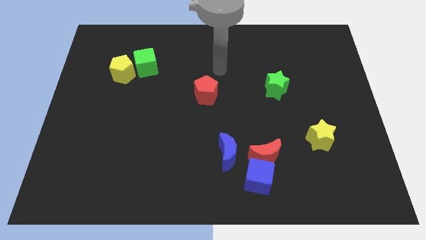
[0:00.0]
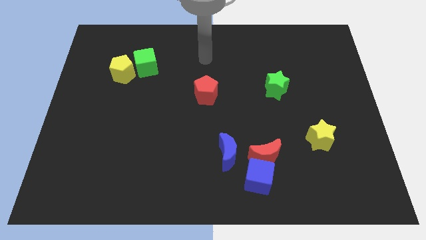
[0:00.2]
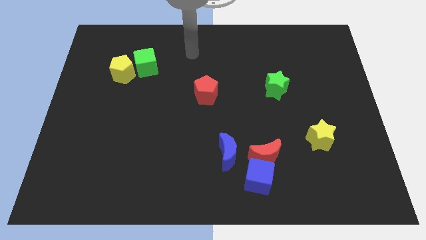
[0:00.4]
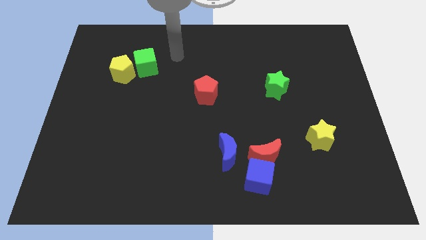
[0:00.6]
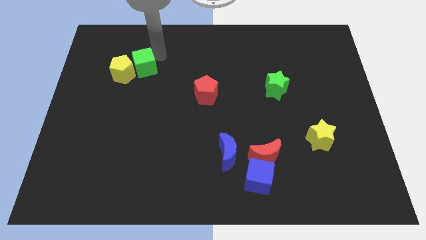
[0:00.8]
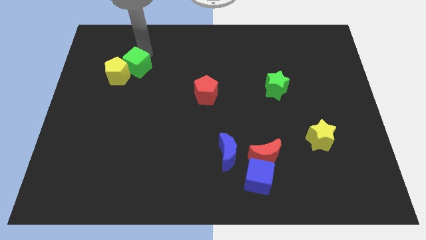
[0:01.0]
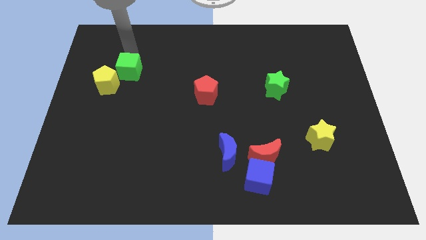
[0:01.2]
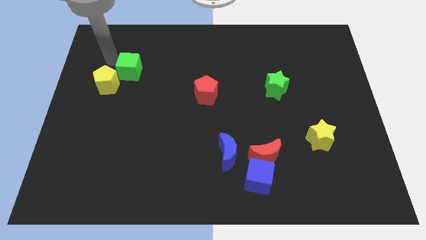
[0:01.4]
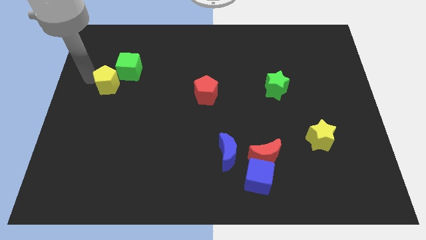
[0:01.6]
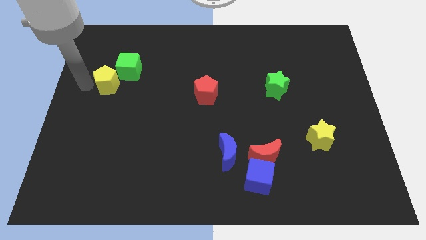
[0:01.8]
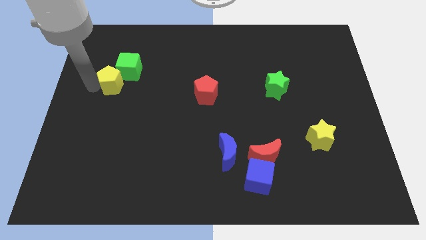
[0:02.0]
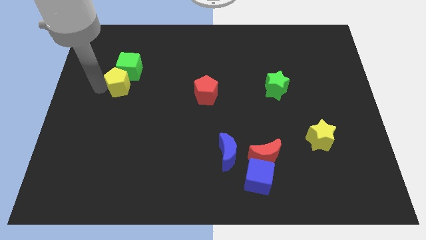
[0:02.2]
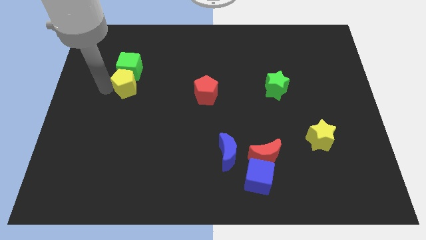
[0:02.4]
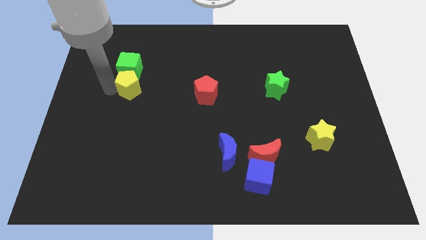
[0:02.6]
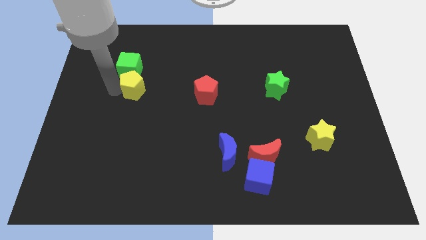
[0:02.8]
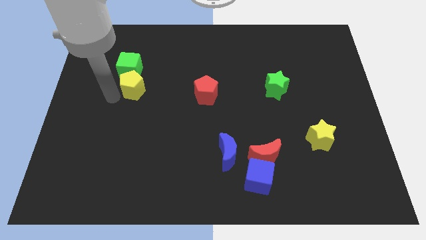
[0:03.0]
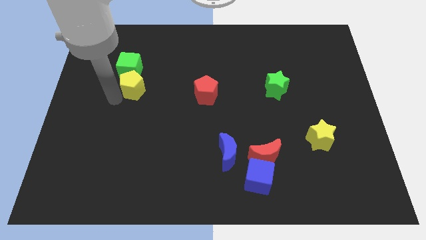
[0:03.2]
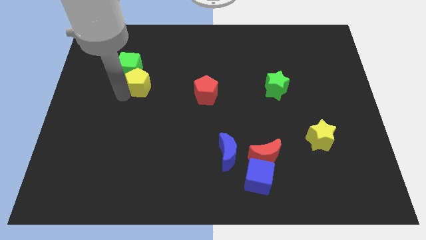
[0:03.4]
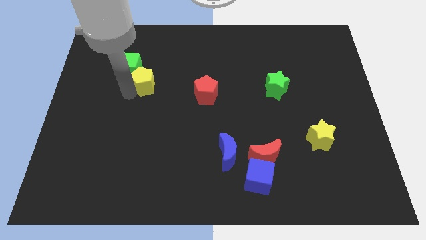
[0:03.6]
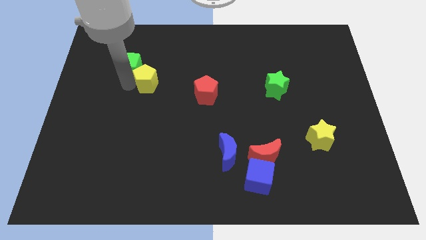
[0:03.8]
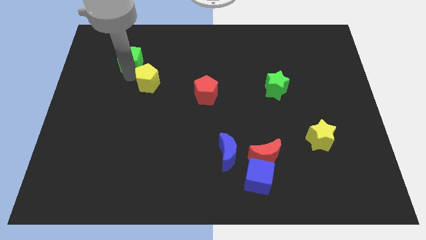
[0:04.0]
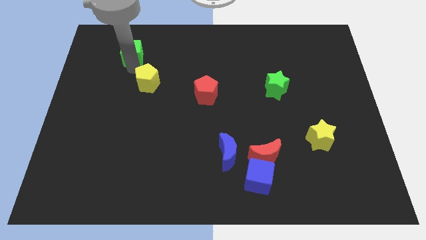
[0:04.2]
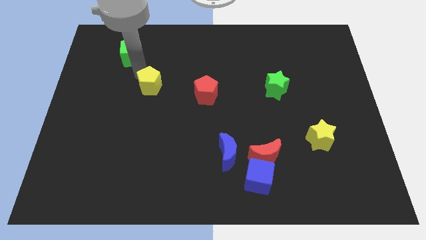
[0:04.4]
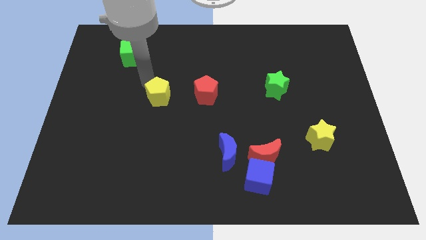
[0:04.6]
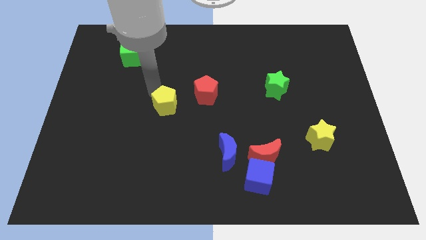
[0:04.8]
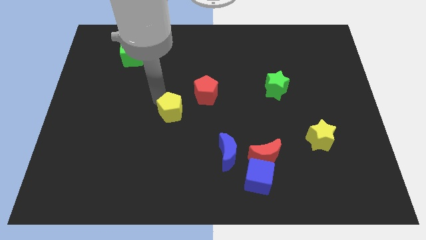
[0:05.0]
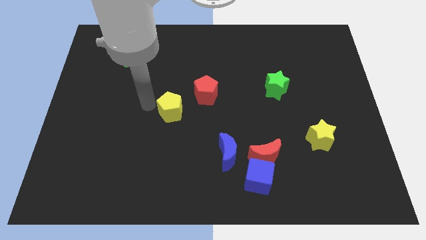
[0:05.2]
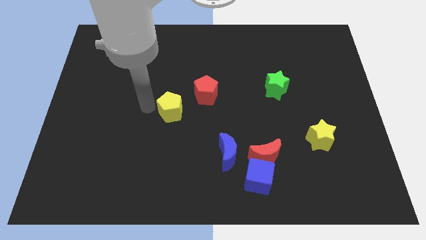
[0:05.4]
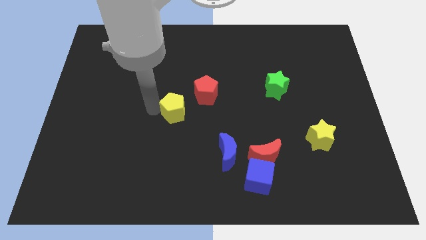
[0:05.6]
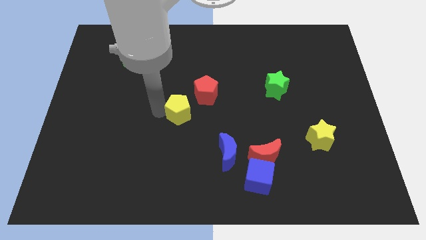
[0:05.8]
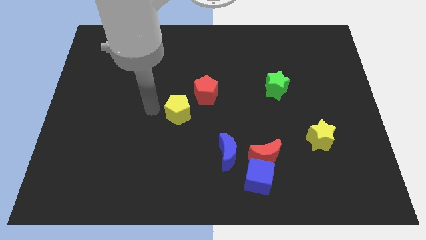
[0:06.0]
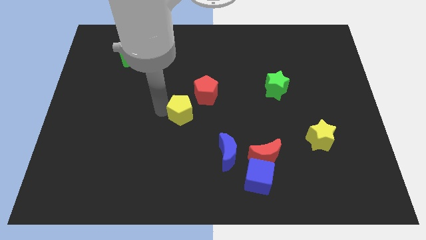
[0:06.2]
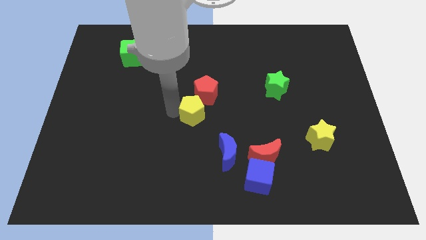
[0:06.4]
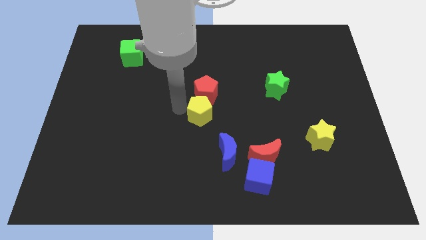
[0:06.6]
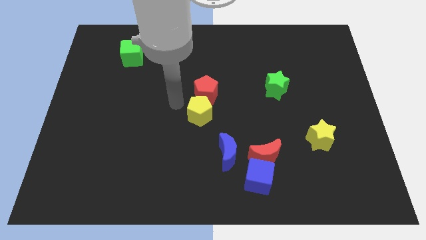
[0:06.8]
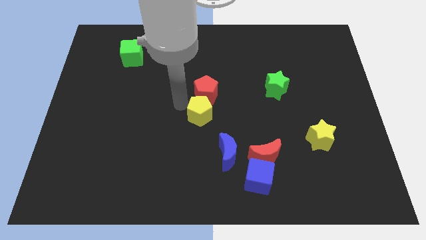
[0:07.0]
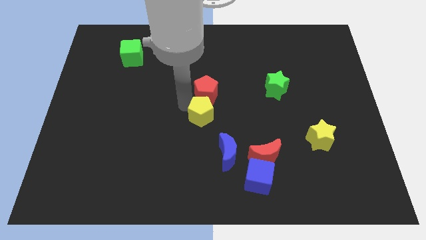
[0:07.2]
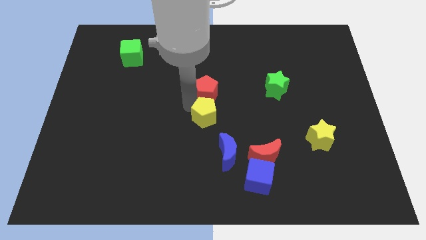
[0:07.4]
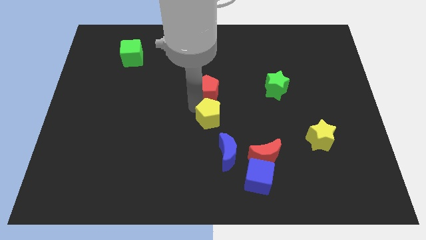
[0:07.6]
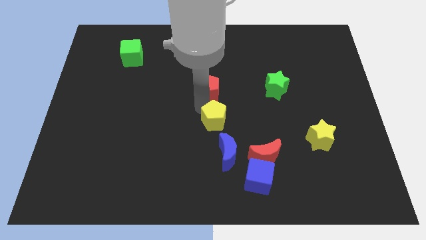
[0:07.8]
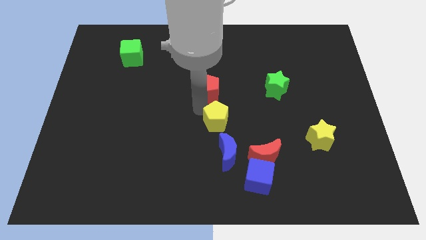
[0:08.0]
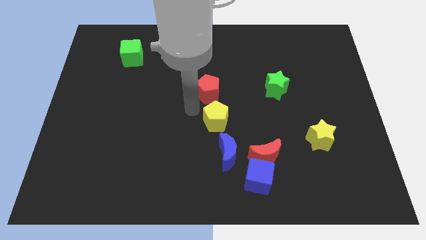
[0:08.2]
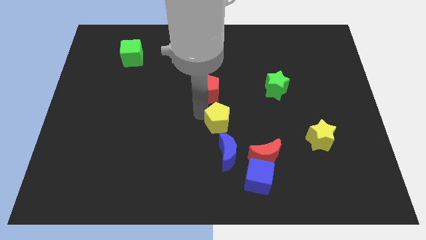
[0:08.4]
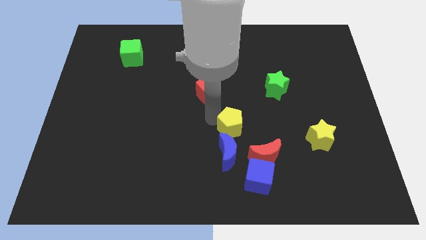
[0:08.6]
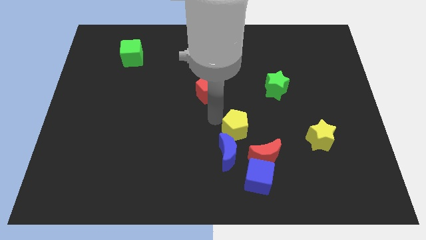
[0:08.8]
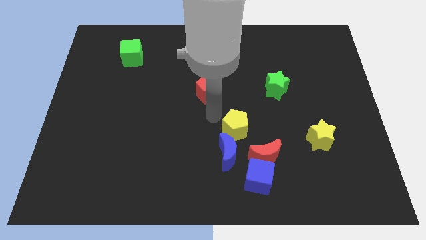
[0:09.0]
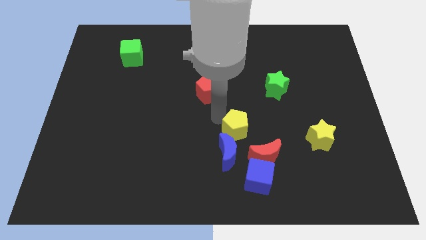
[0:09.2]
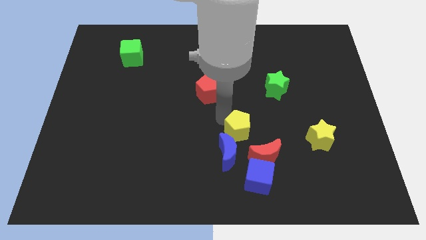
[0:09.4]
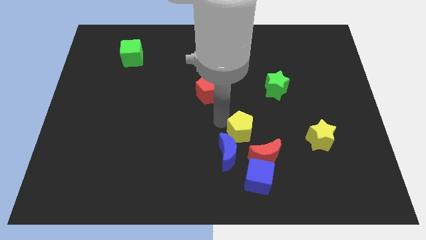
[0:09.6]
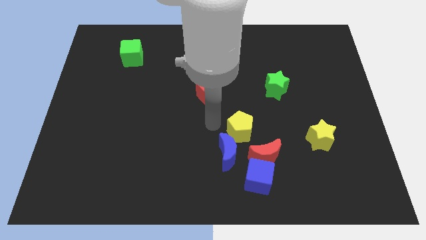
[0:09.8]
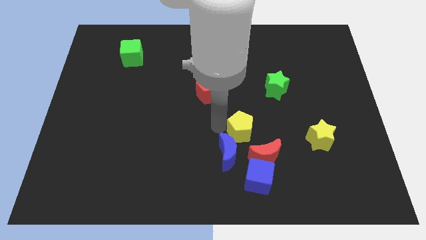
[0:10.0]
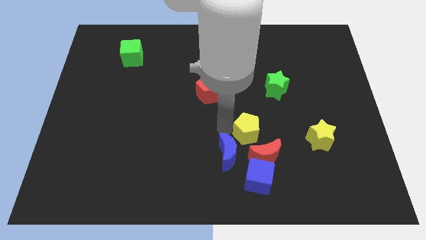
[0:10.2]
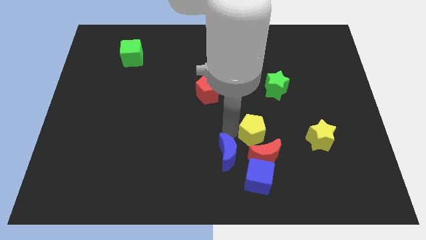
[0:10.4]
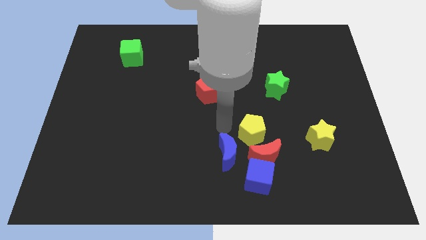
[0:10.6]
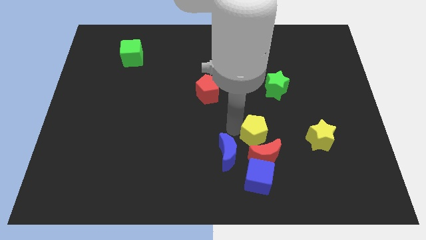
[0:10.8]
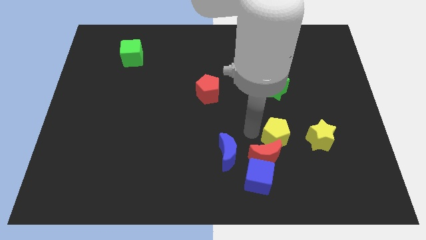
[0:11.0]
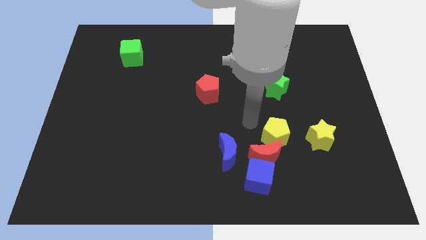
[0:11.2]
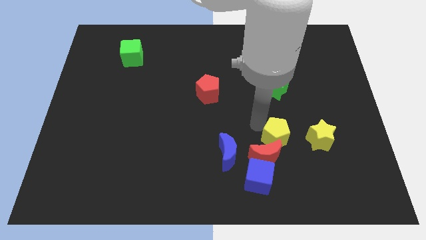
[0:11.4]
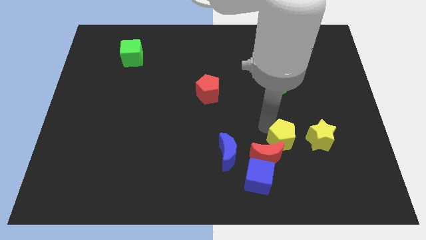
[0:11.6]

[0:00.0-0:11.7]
push the yellow pentagon just right of the red moon

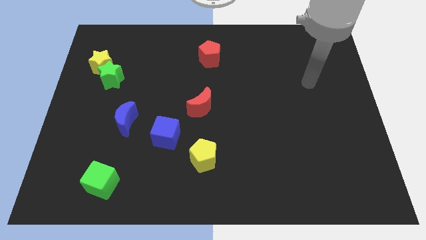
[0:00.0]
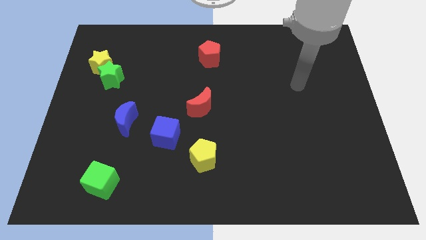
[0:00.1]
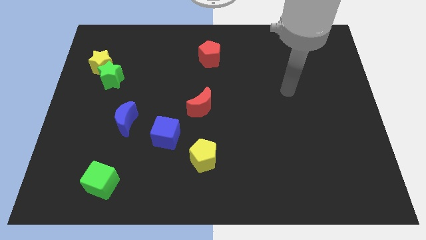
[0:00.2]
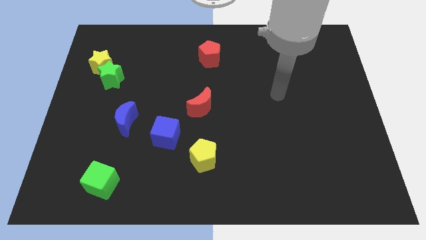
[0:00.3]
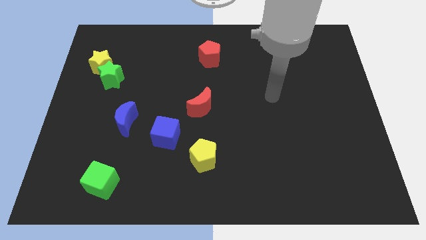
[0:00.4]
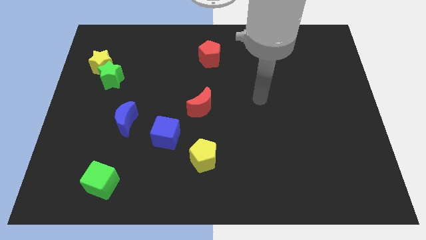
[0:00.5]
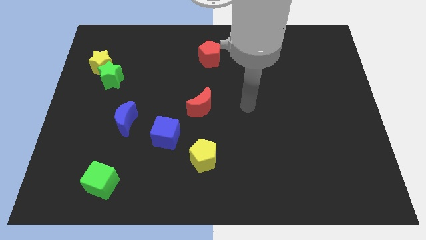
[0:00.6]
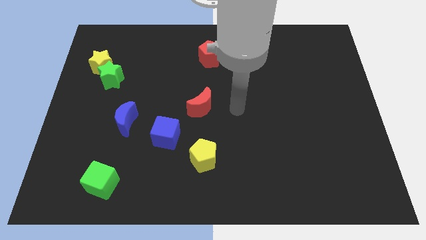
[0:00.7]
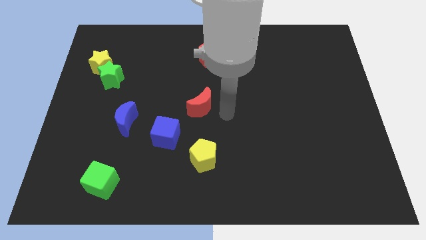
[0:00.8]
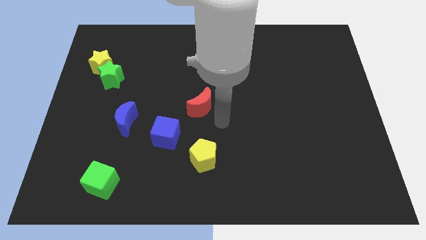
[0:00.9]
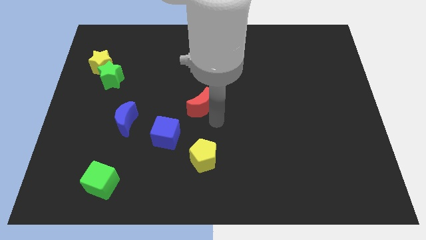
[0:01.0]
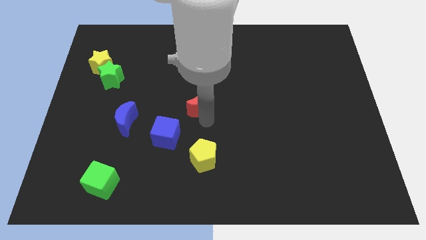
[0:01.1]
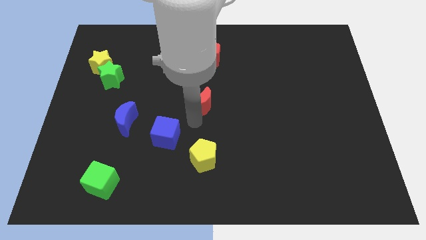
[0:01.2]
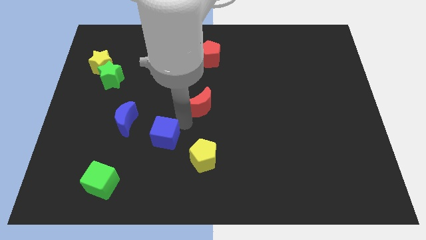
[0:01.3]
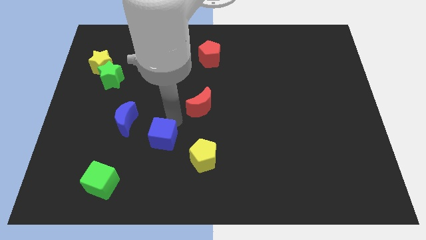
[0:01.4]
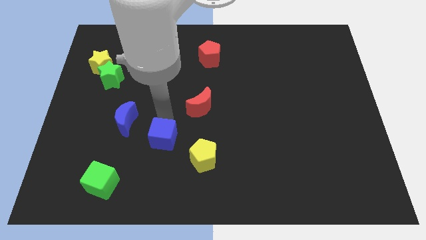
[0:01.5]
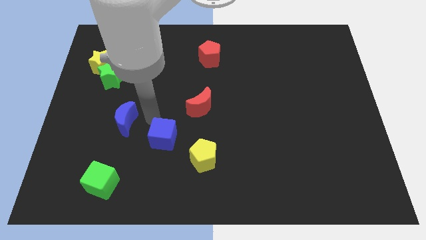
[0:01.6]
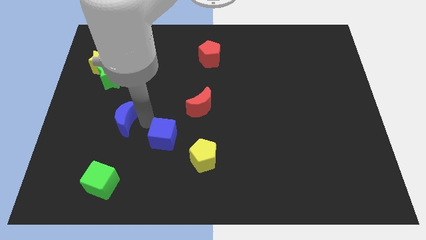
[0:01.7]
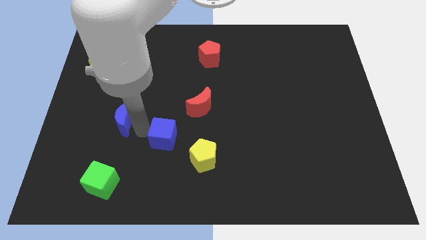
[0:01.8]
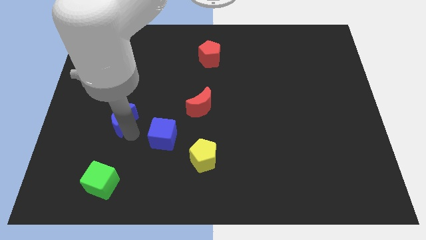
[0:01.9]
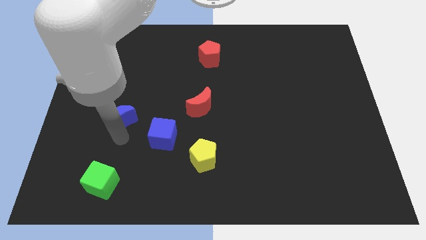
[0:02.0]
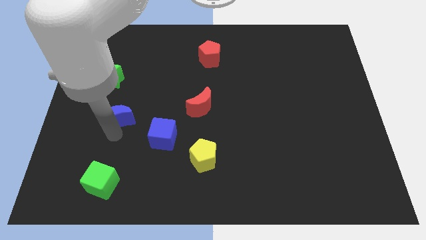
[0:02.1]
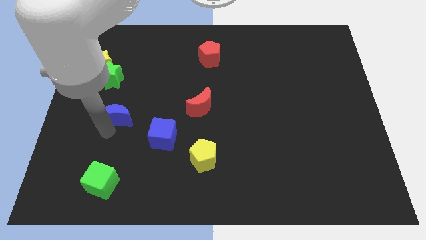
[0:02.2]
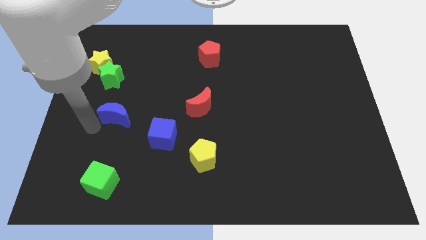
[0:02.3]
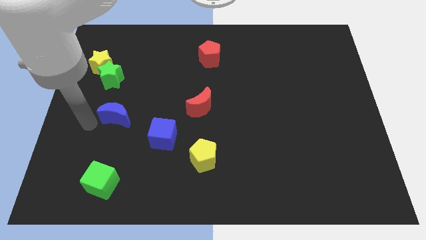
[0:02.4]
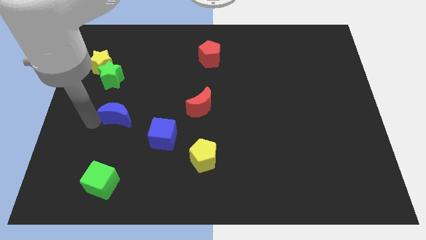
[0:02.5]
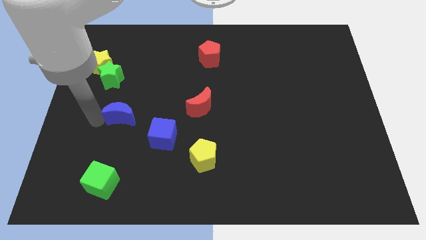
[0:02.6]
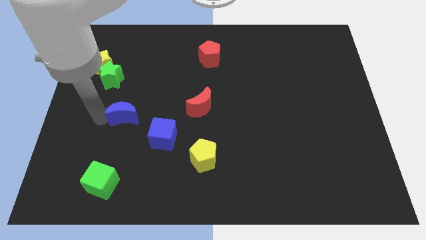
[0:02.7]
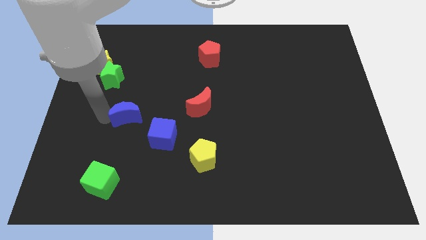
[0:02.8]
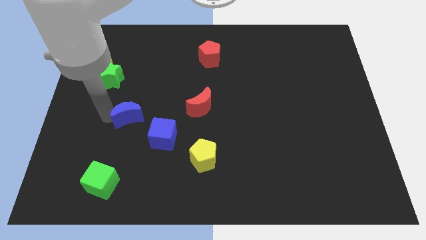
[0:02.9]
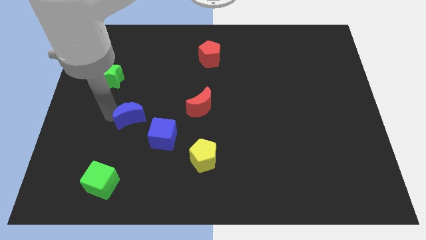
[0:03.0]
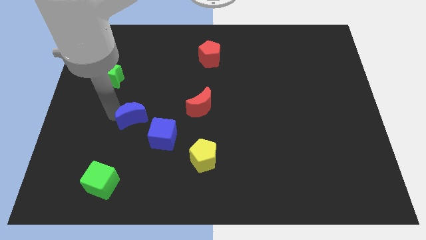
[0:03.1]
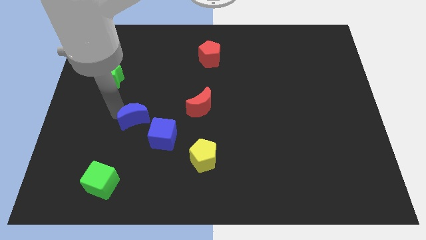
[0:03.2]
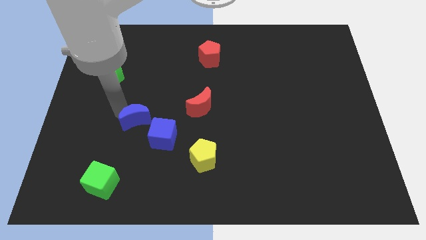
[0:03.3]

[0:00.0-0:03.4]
slide the blue moon to the left of the red moon
